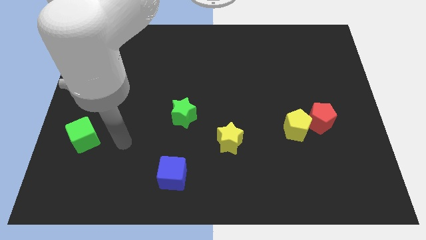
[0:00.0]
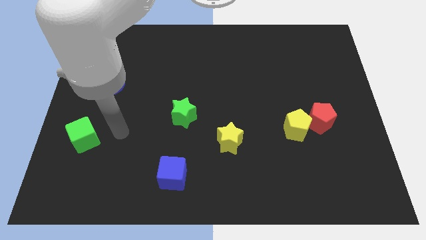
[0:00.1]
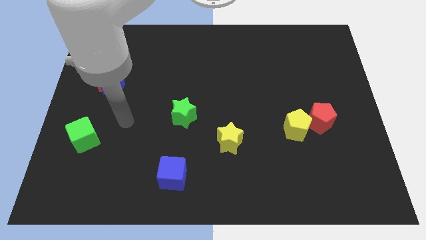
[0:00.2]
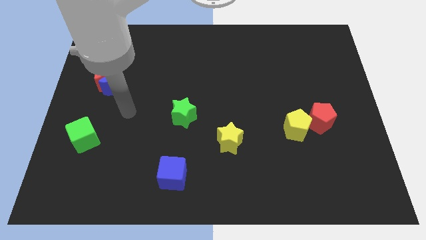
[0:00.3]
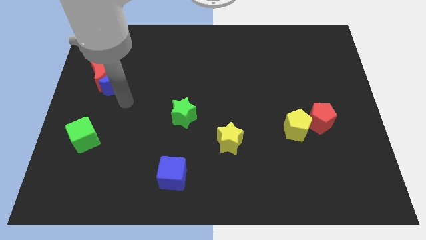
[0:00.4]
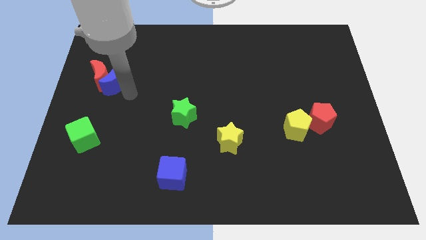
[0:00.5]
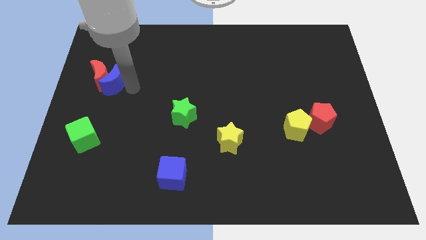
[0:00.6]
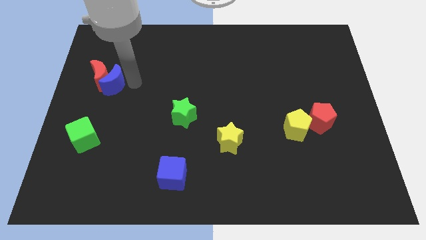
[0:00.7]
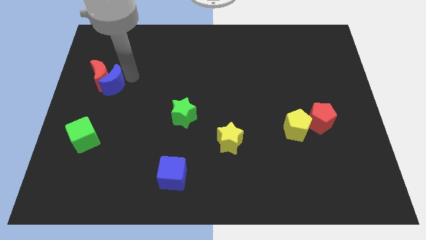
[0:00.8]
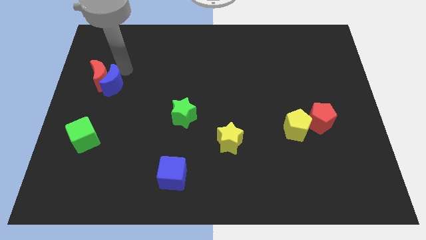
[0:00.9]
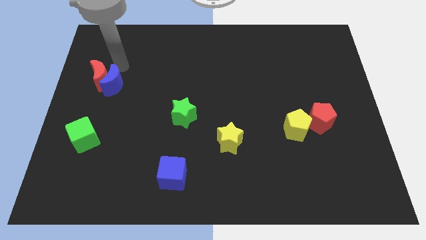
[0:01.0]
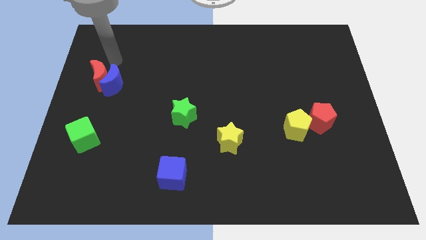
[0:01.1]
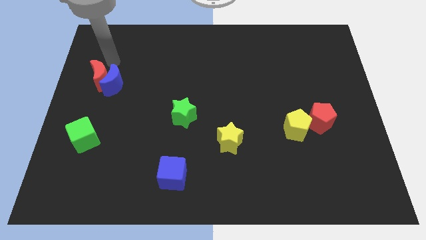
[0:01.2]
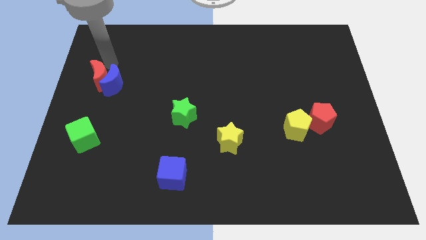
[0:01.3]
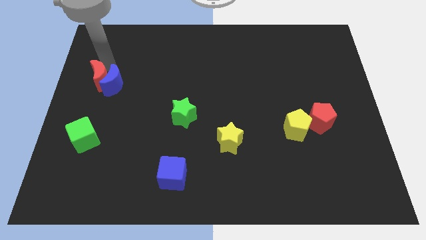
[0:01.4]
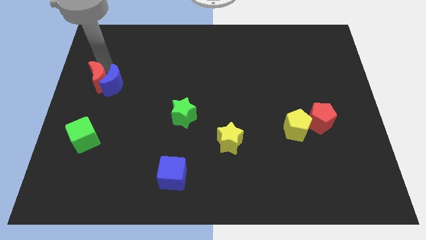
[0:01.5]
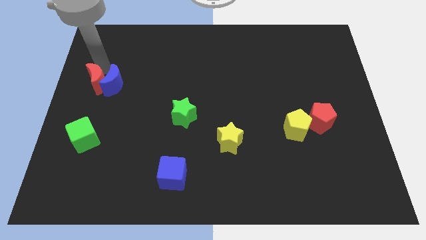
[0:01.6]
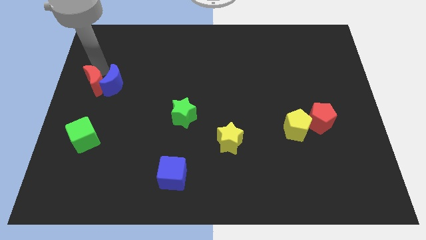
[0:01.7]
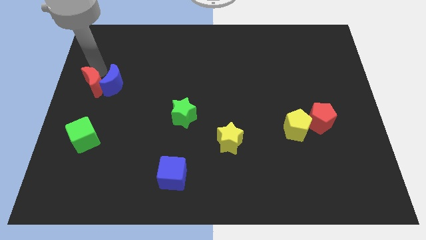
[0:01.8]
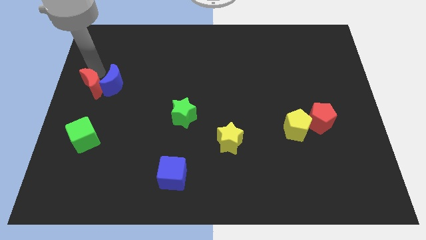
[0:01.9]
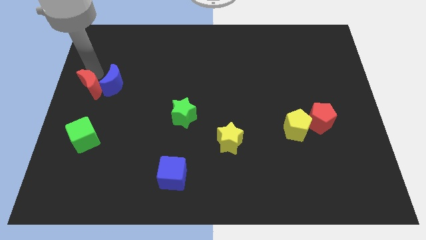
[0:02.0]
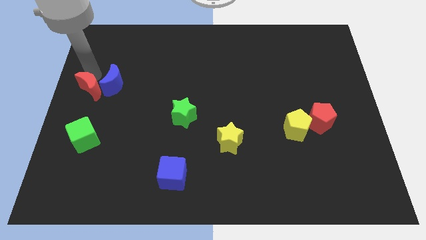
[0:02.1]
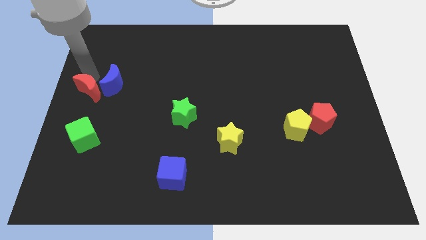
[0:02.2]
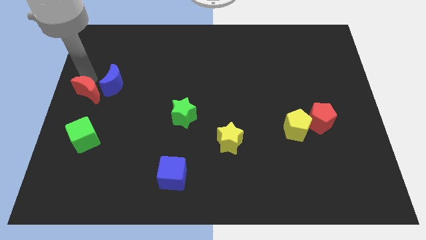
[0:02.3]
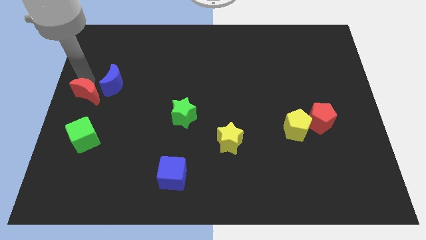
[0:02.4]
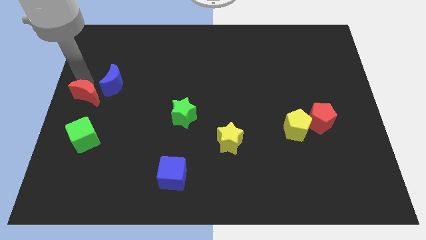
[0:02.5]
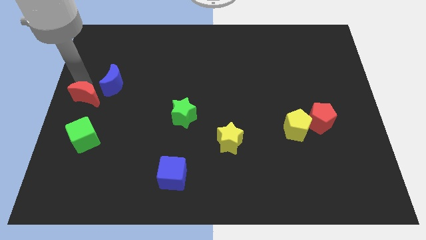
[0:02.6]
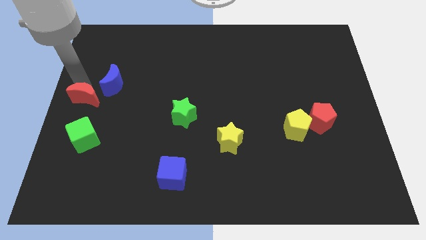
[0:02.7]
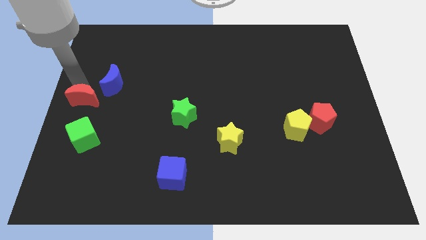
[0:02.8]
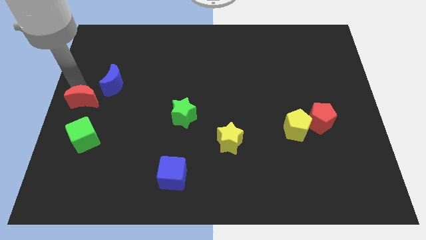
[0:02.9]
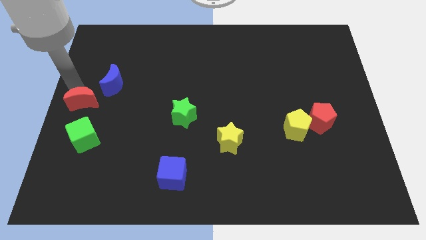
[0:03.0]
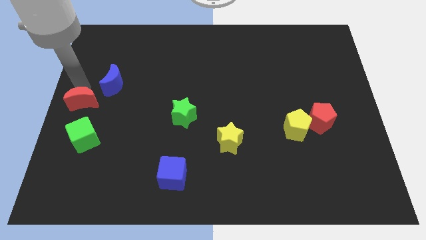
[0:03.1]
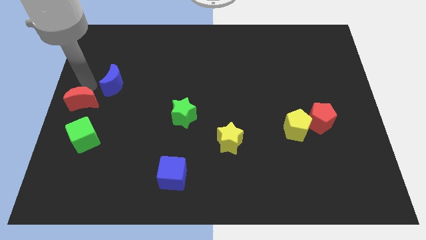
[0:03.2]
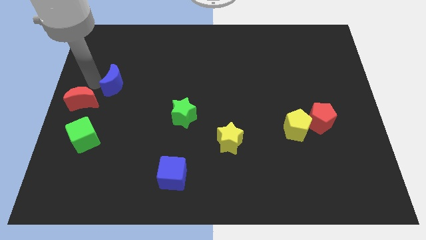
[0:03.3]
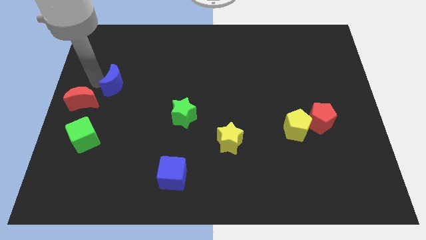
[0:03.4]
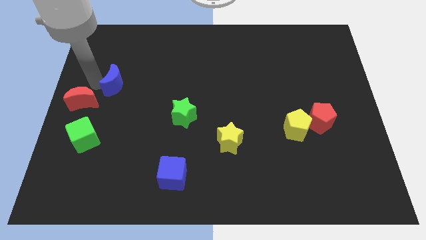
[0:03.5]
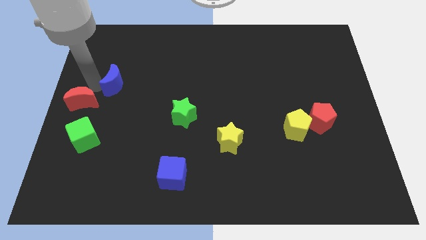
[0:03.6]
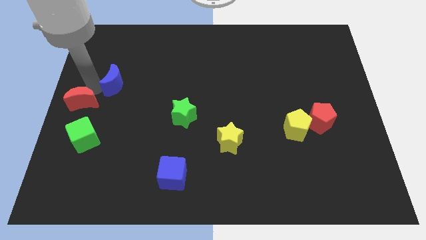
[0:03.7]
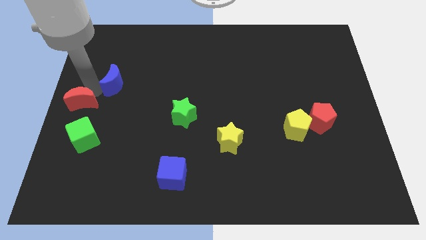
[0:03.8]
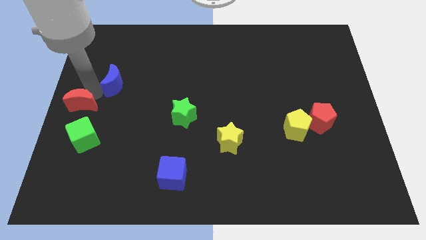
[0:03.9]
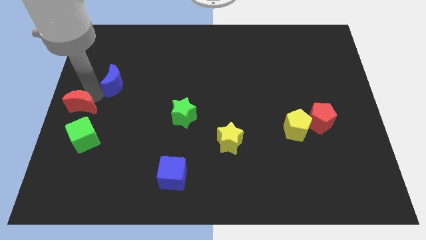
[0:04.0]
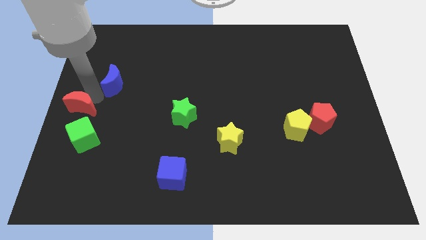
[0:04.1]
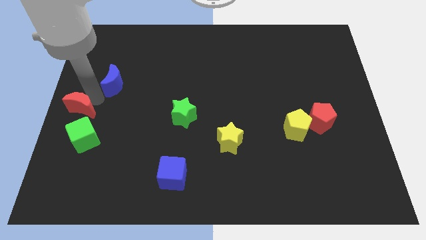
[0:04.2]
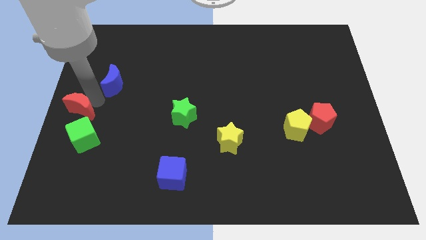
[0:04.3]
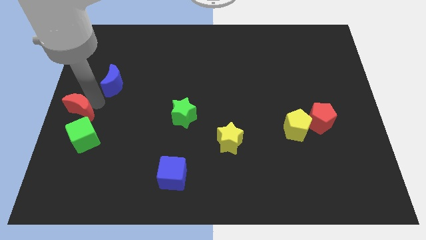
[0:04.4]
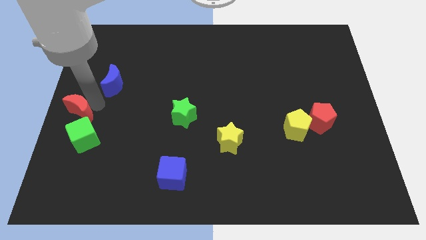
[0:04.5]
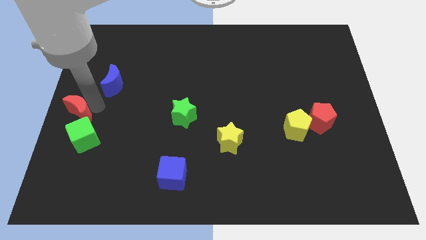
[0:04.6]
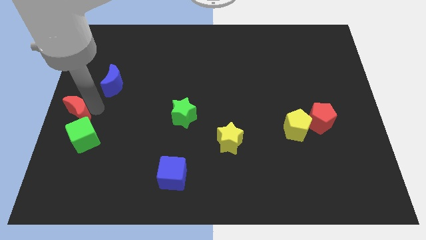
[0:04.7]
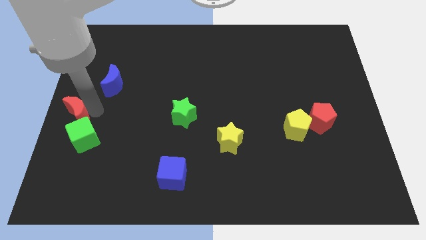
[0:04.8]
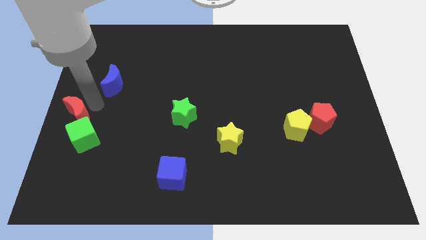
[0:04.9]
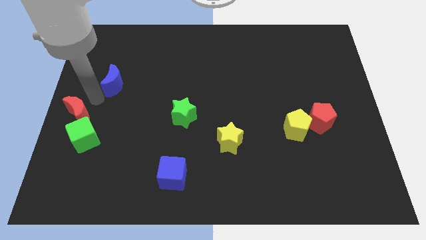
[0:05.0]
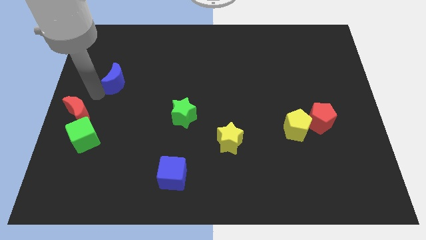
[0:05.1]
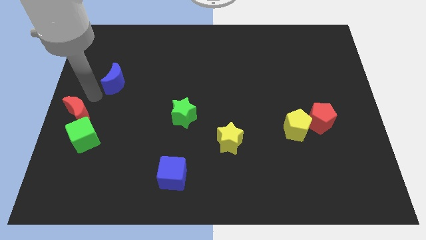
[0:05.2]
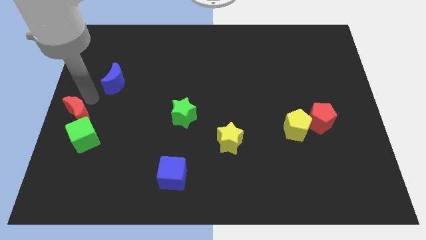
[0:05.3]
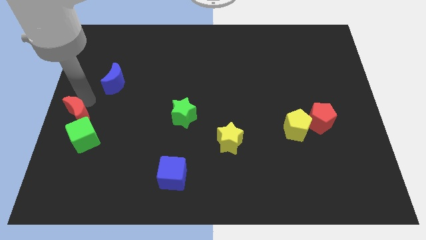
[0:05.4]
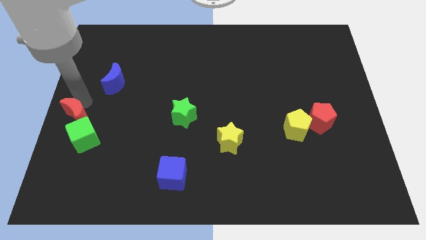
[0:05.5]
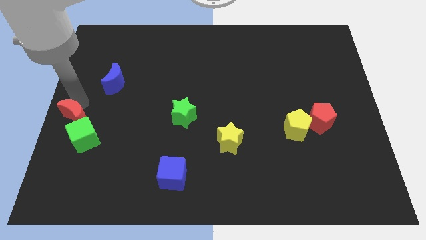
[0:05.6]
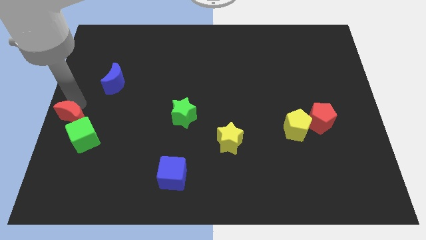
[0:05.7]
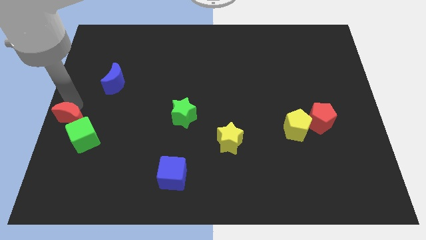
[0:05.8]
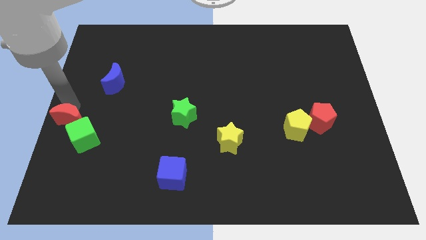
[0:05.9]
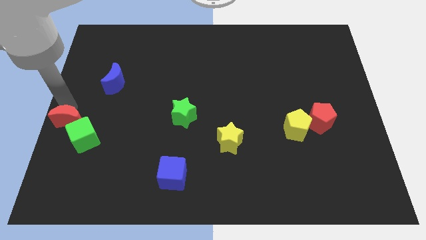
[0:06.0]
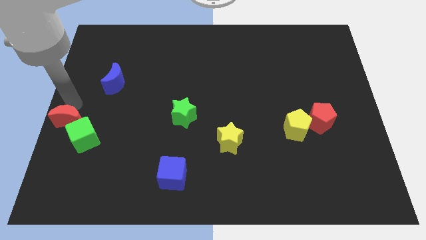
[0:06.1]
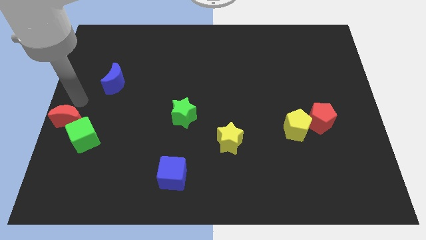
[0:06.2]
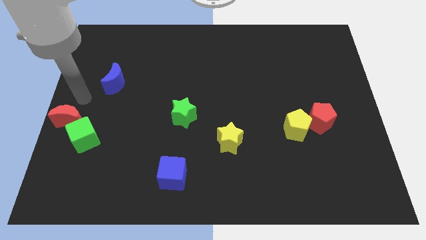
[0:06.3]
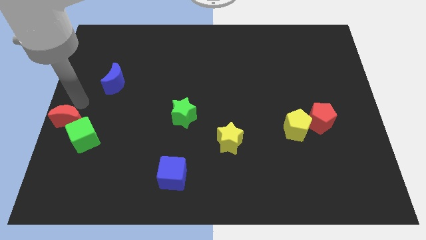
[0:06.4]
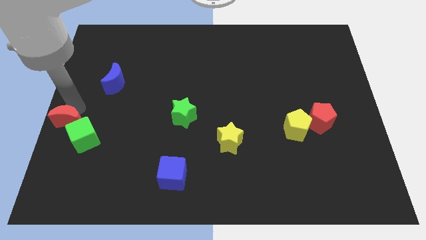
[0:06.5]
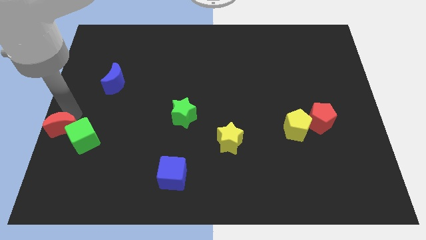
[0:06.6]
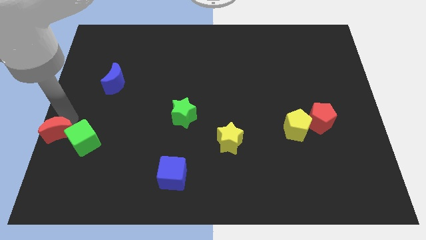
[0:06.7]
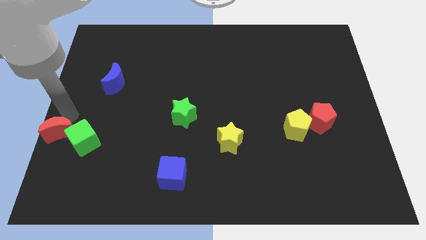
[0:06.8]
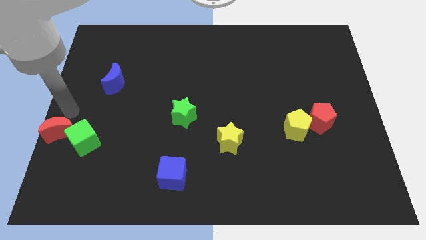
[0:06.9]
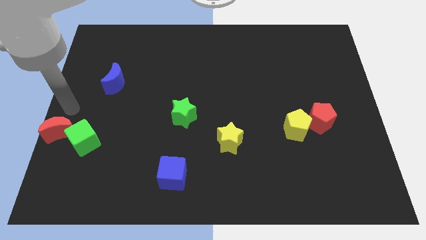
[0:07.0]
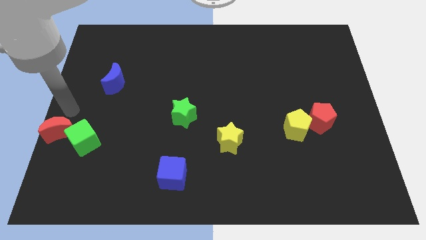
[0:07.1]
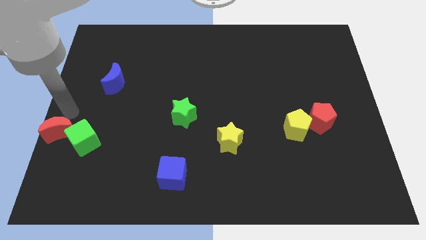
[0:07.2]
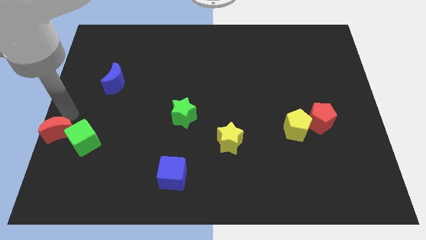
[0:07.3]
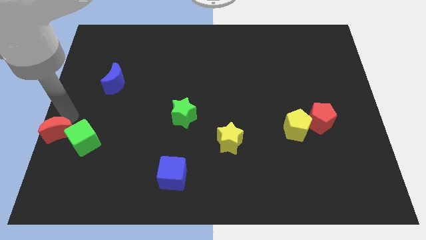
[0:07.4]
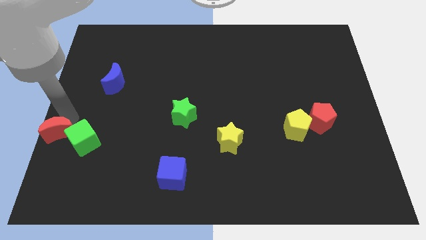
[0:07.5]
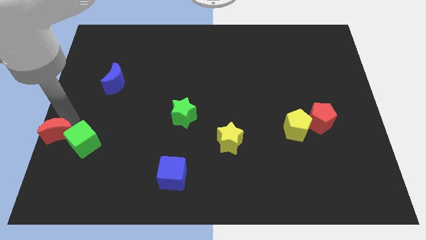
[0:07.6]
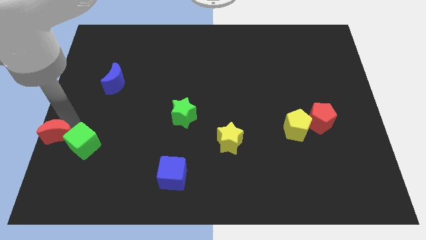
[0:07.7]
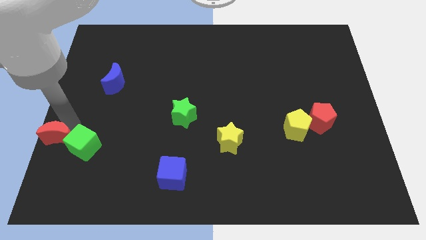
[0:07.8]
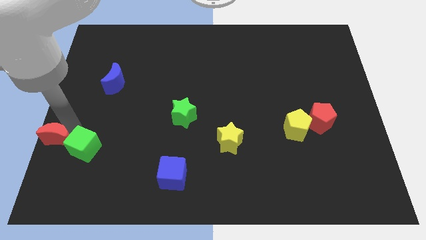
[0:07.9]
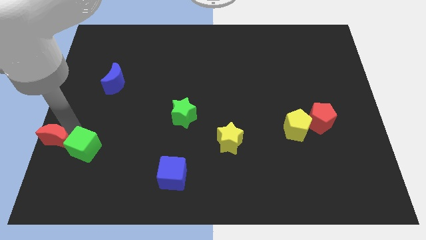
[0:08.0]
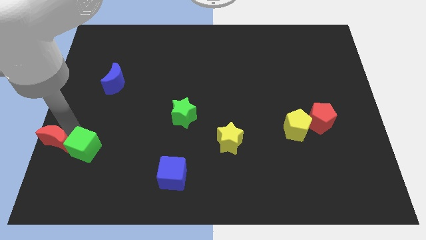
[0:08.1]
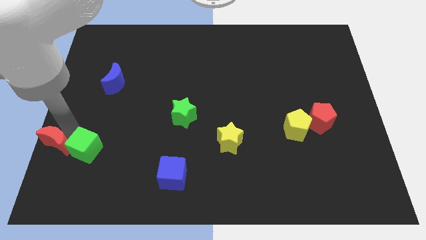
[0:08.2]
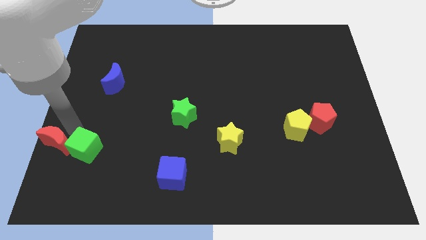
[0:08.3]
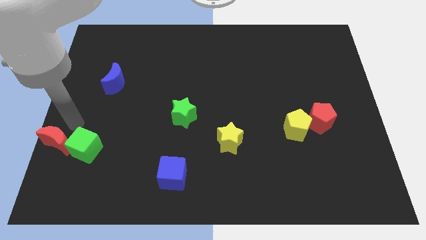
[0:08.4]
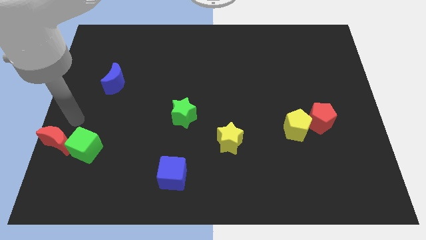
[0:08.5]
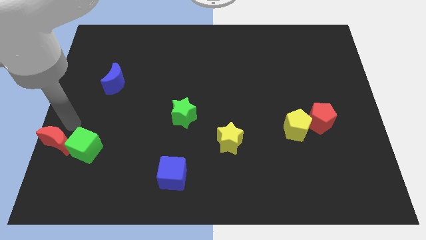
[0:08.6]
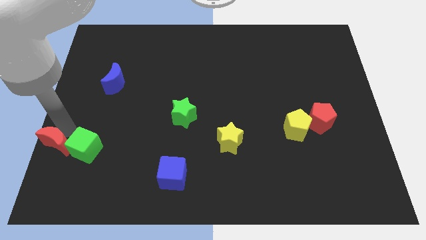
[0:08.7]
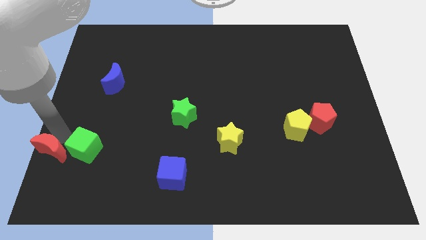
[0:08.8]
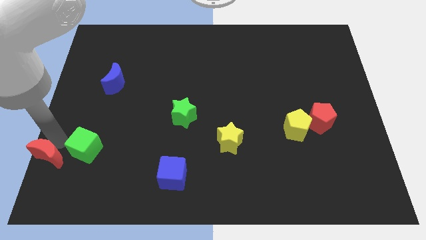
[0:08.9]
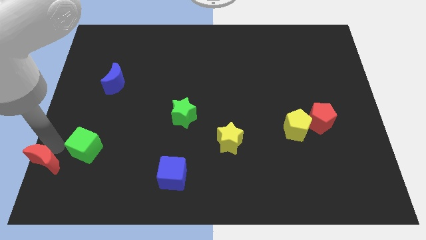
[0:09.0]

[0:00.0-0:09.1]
push the red moon to the bottom left corner
